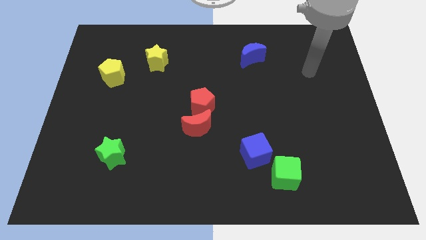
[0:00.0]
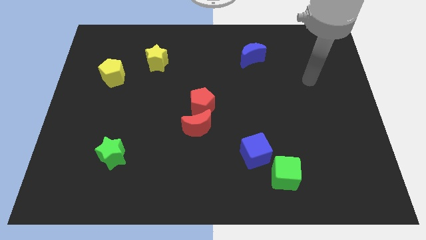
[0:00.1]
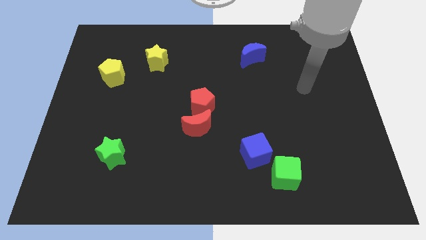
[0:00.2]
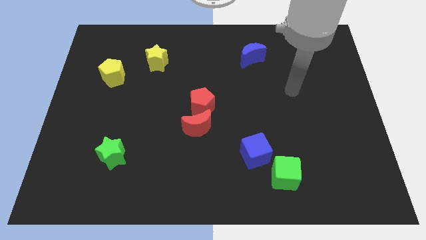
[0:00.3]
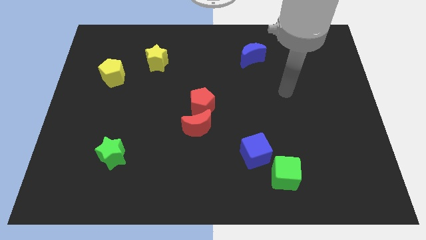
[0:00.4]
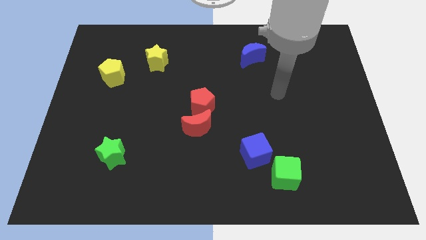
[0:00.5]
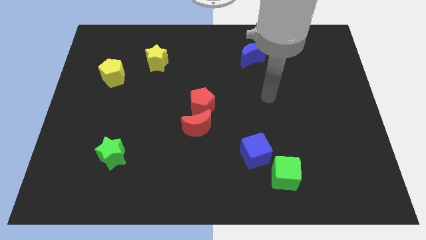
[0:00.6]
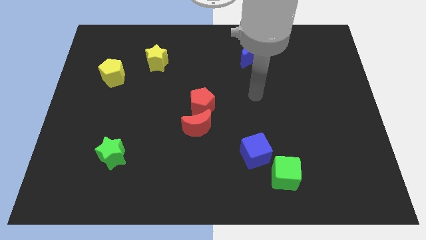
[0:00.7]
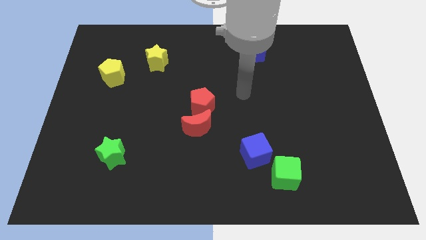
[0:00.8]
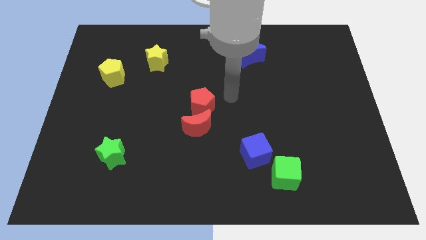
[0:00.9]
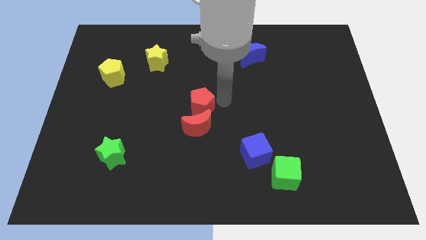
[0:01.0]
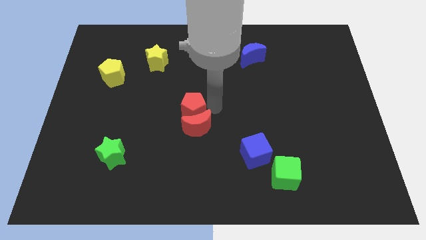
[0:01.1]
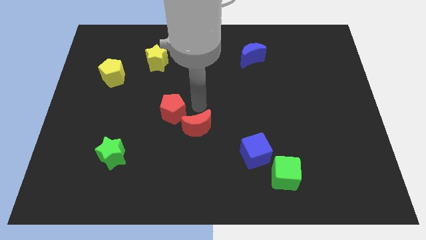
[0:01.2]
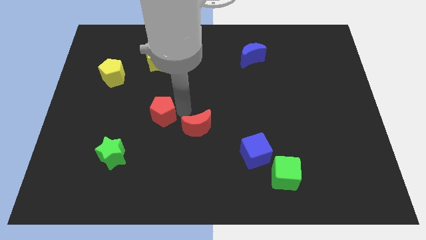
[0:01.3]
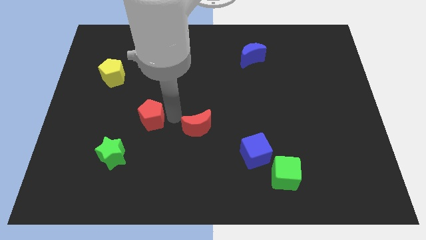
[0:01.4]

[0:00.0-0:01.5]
separate the red moon from the red pentagon

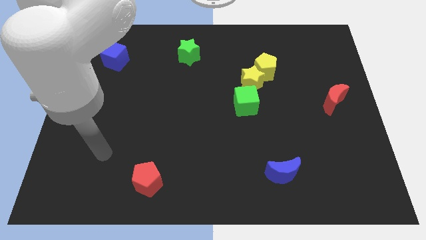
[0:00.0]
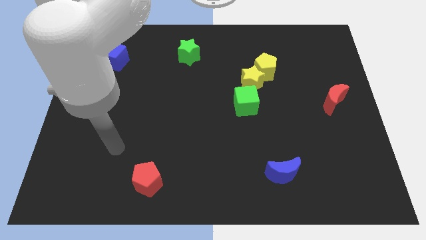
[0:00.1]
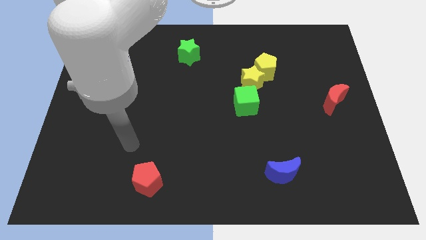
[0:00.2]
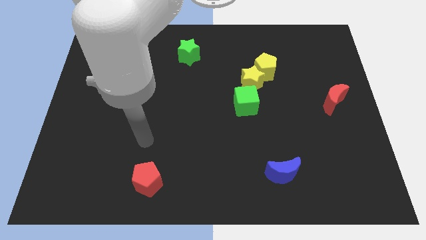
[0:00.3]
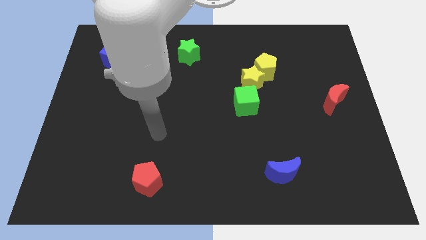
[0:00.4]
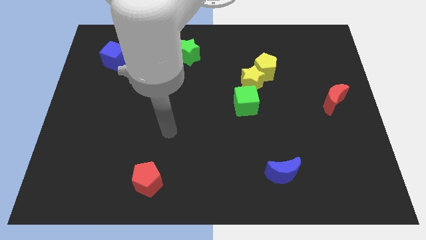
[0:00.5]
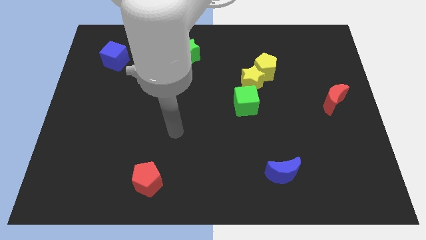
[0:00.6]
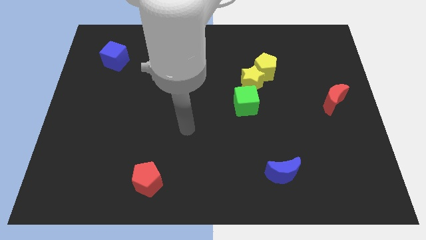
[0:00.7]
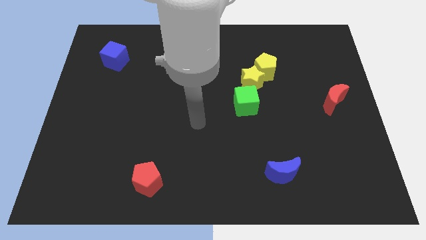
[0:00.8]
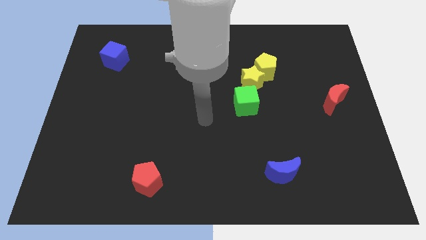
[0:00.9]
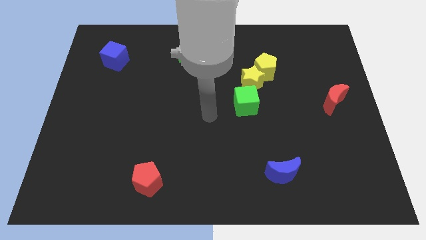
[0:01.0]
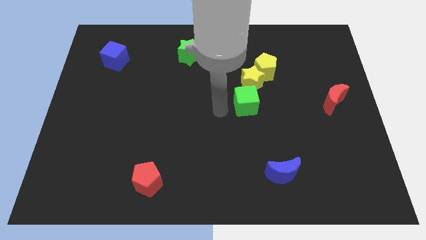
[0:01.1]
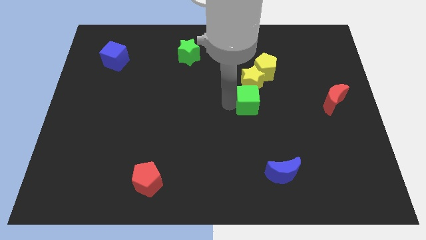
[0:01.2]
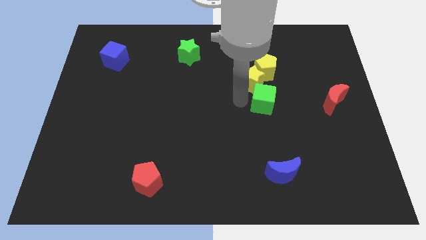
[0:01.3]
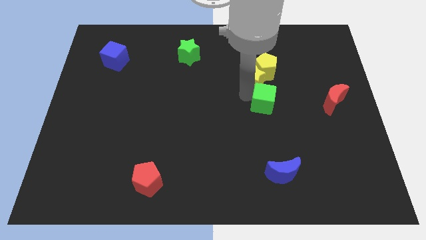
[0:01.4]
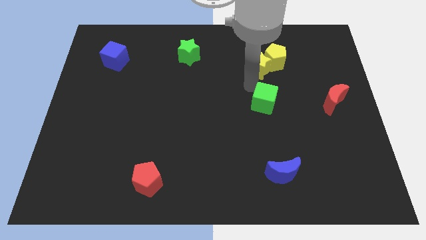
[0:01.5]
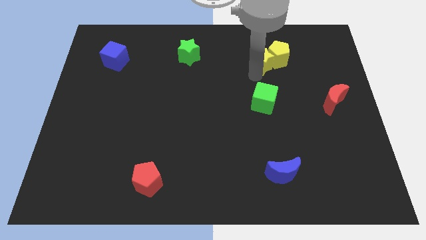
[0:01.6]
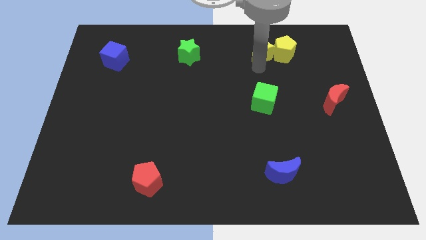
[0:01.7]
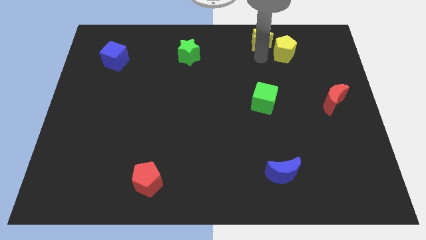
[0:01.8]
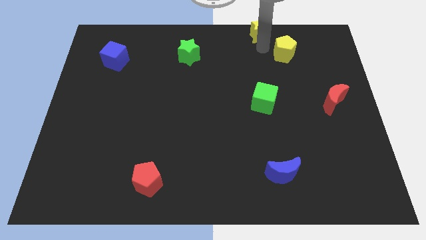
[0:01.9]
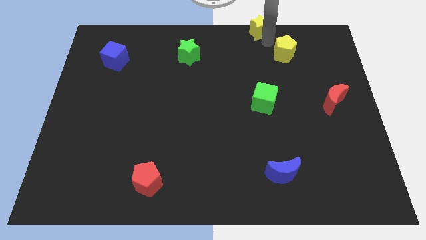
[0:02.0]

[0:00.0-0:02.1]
separate the yellow pentagon from the yellow star

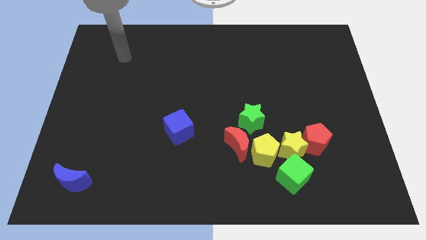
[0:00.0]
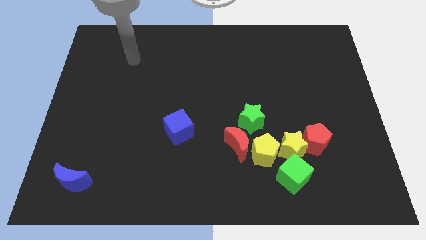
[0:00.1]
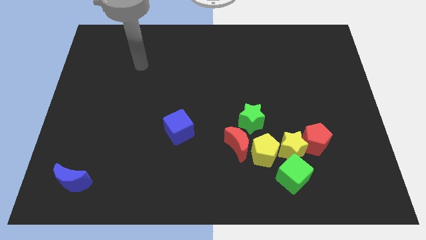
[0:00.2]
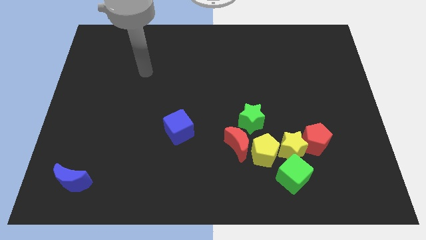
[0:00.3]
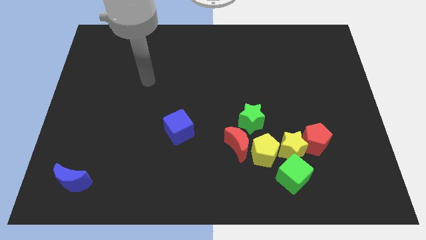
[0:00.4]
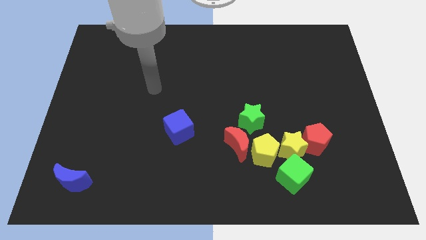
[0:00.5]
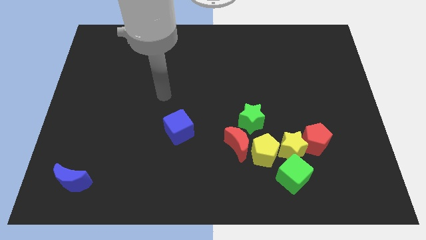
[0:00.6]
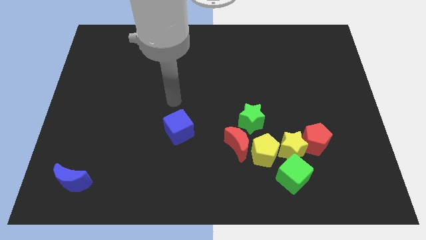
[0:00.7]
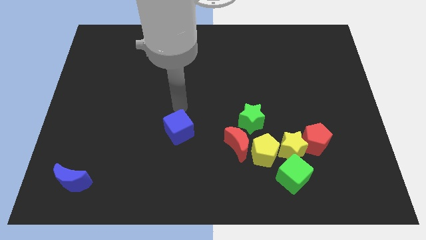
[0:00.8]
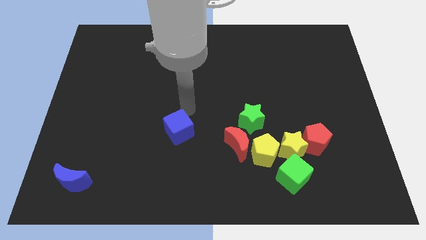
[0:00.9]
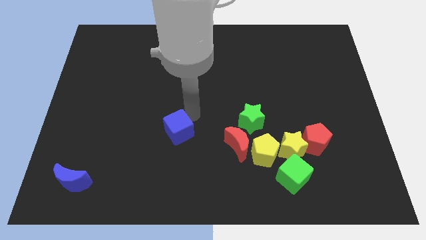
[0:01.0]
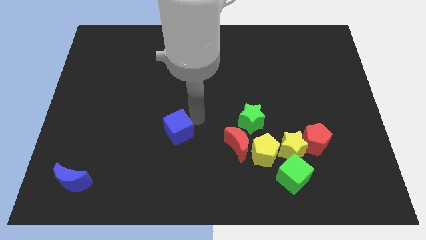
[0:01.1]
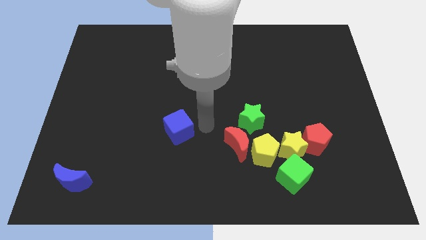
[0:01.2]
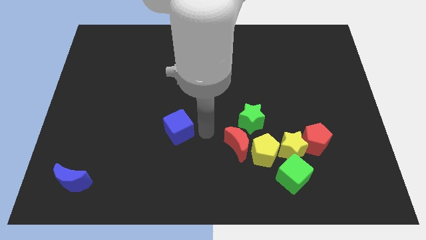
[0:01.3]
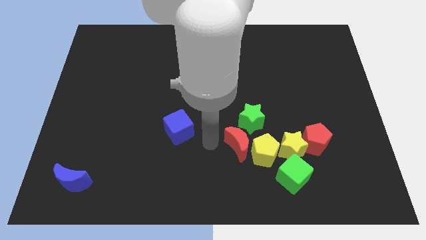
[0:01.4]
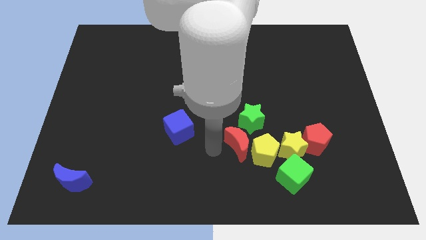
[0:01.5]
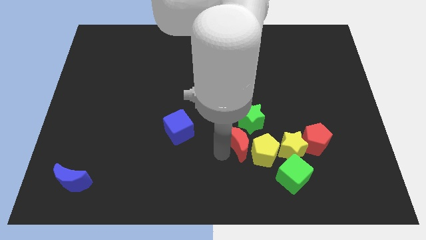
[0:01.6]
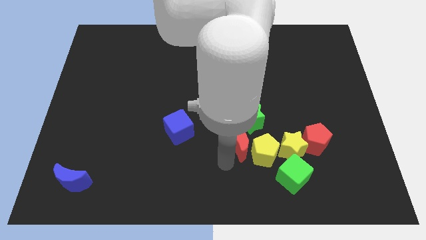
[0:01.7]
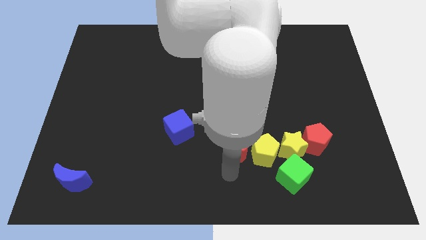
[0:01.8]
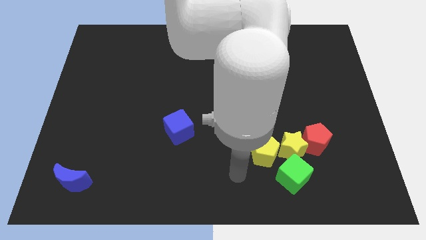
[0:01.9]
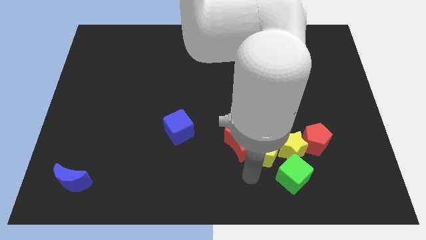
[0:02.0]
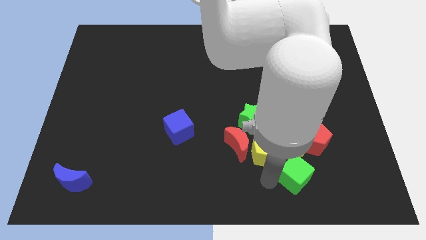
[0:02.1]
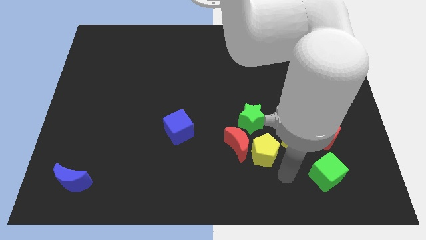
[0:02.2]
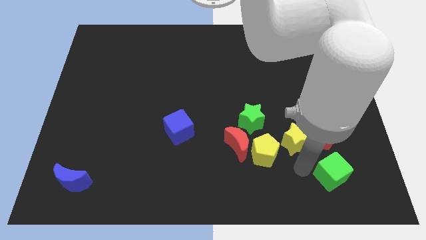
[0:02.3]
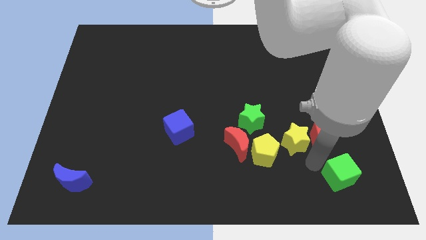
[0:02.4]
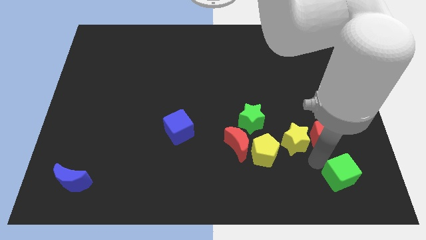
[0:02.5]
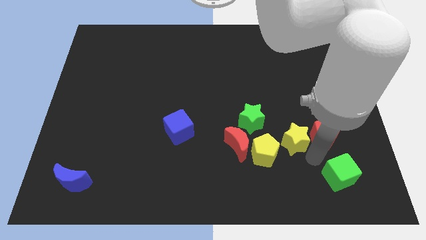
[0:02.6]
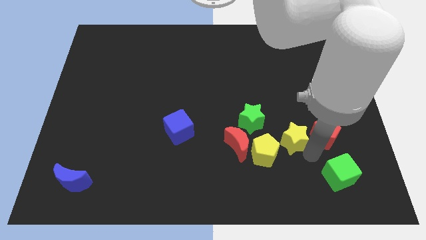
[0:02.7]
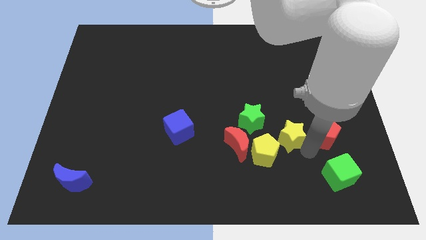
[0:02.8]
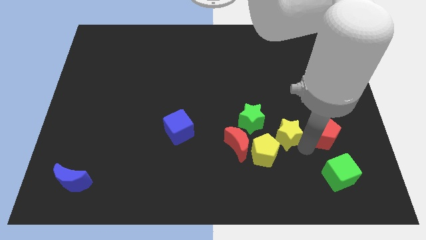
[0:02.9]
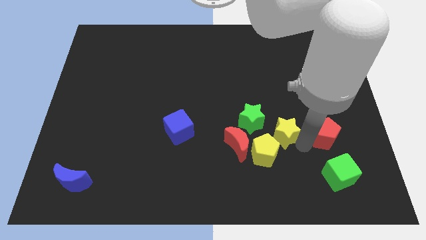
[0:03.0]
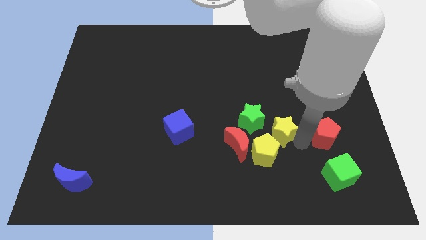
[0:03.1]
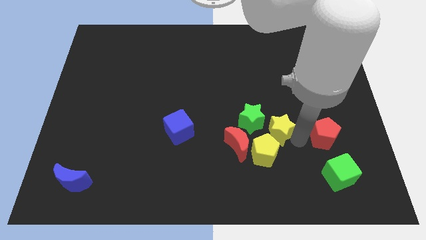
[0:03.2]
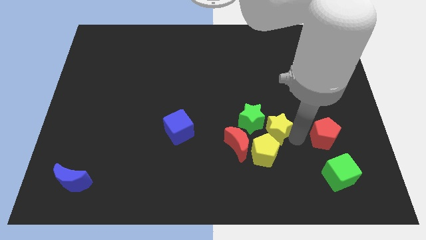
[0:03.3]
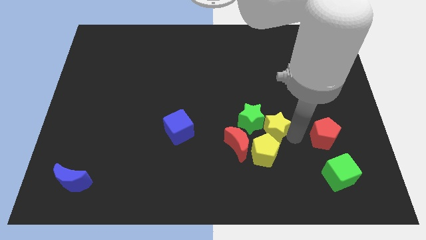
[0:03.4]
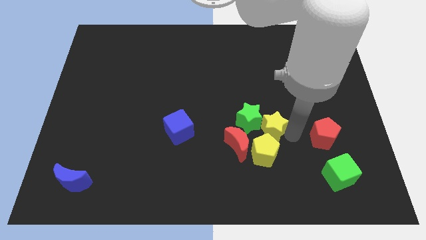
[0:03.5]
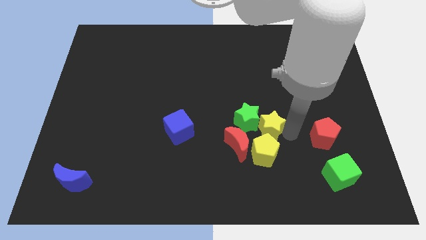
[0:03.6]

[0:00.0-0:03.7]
pull the yellow star apart from the group

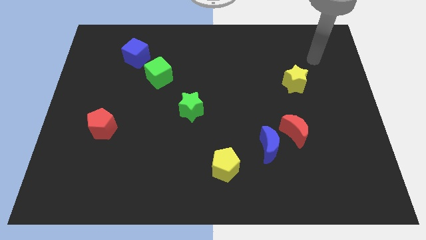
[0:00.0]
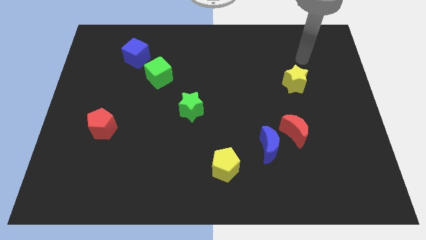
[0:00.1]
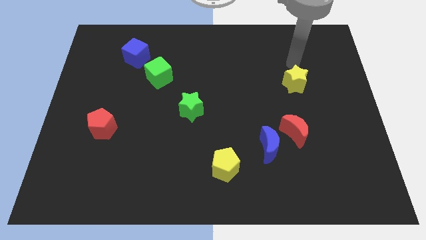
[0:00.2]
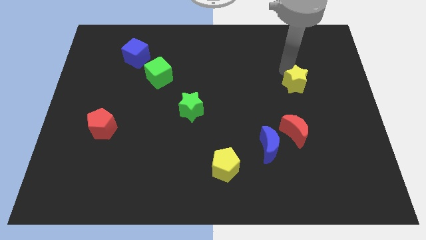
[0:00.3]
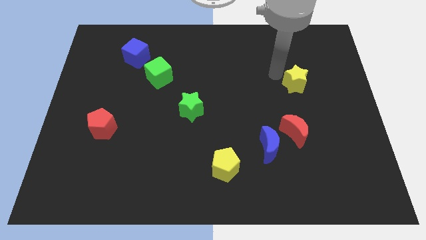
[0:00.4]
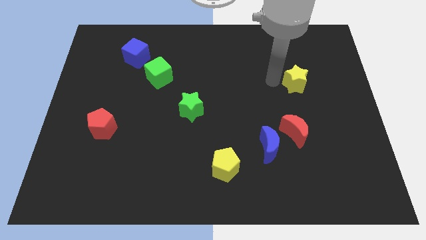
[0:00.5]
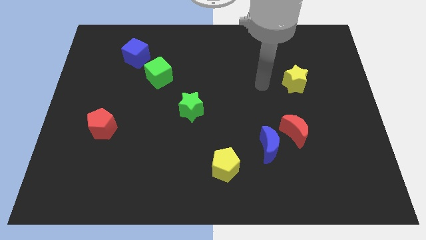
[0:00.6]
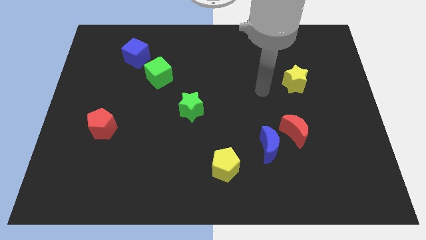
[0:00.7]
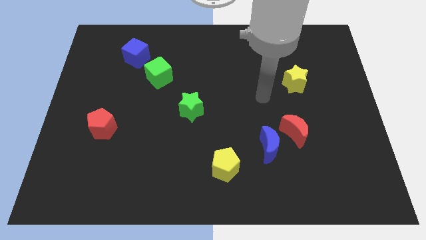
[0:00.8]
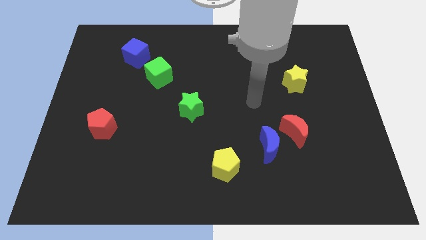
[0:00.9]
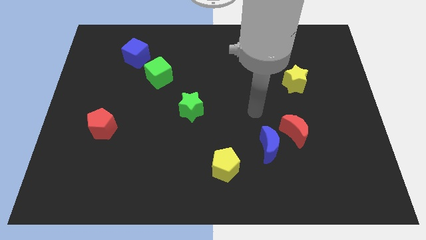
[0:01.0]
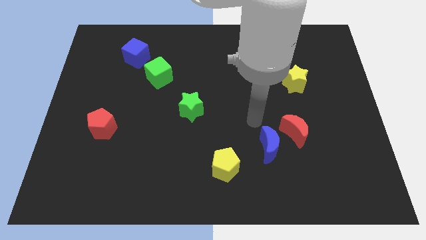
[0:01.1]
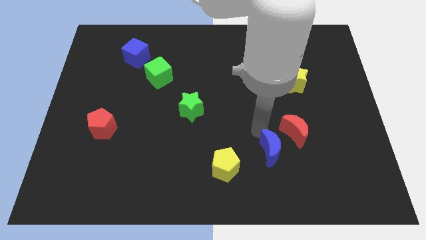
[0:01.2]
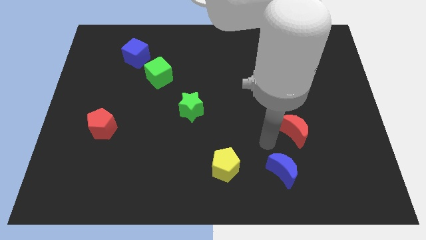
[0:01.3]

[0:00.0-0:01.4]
move the red moon away from the blue moon

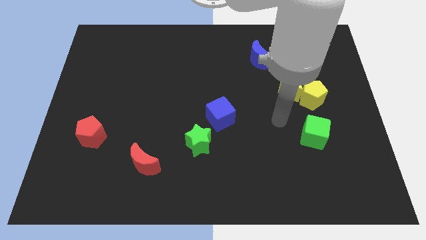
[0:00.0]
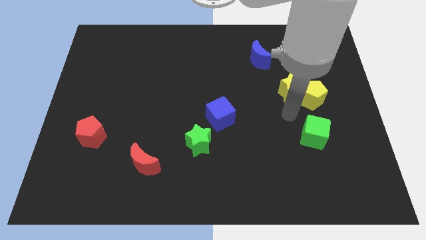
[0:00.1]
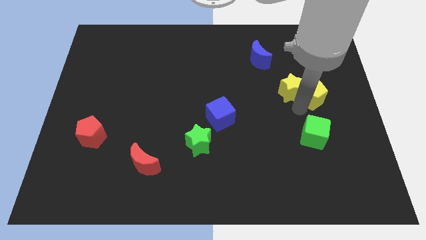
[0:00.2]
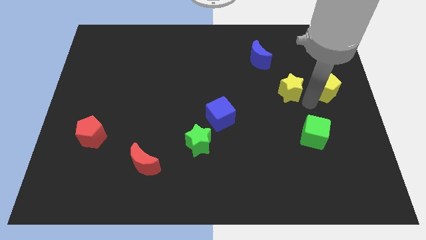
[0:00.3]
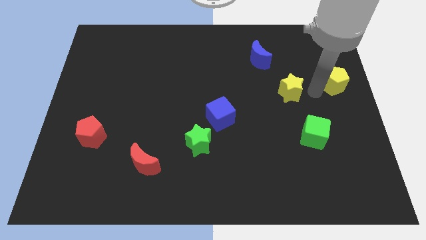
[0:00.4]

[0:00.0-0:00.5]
move the yellow star away from the yellow pentagon
